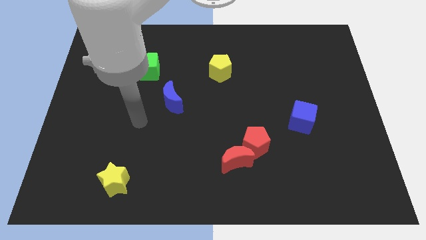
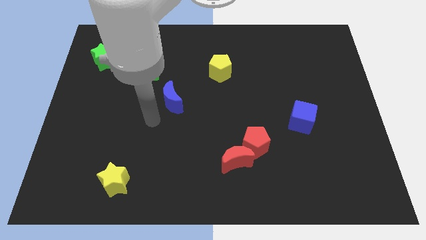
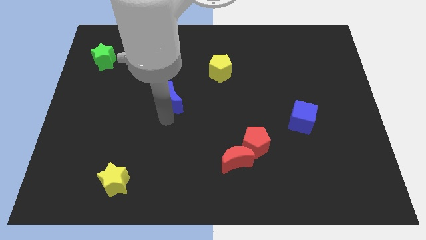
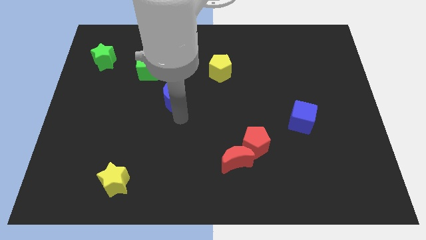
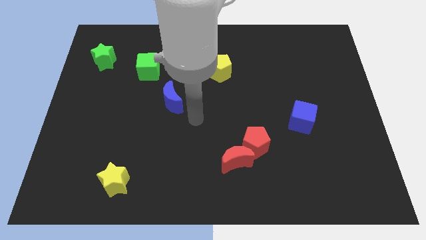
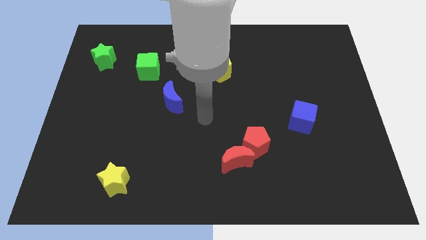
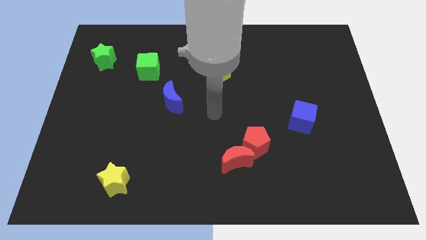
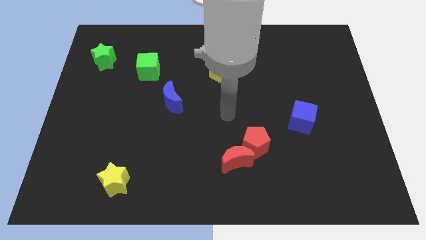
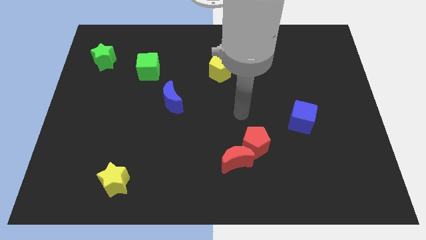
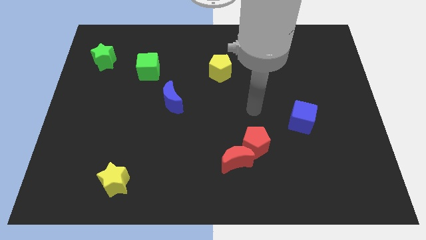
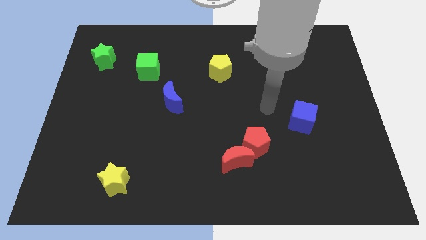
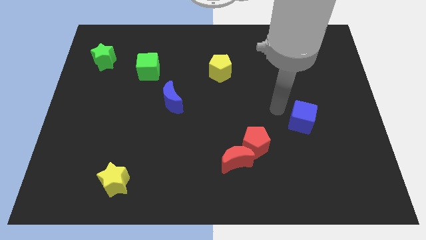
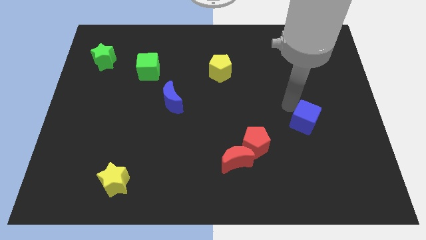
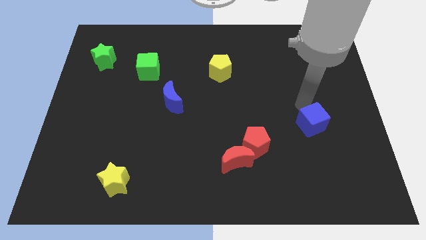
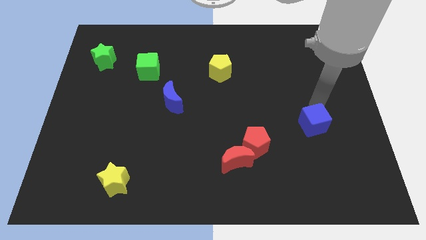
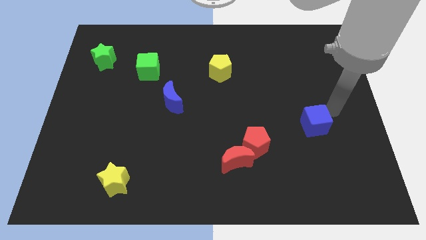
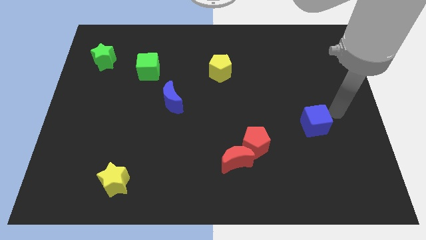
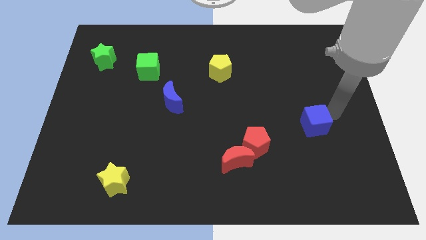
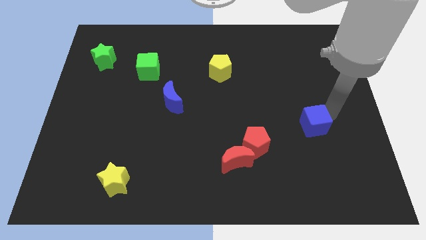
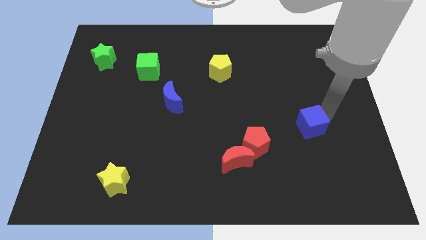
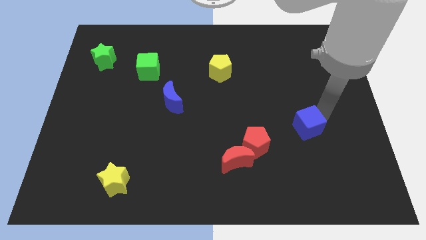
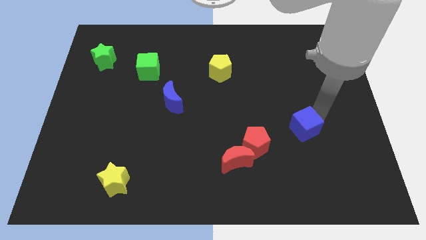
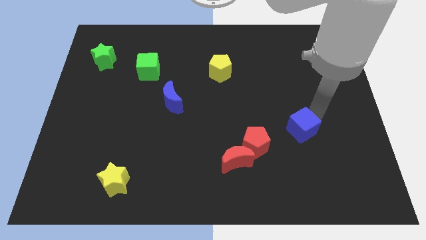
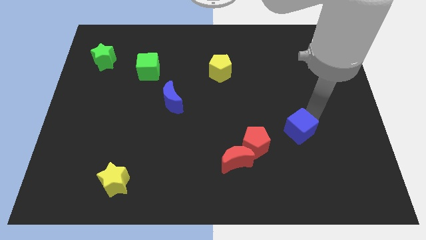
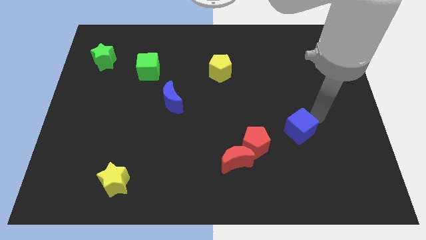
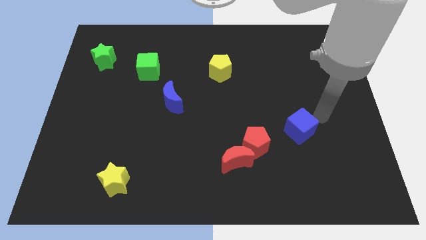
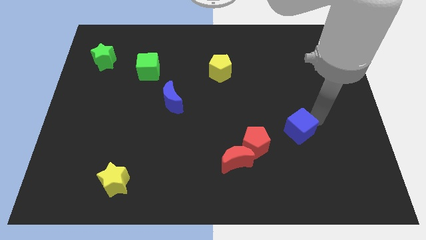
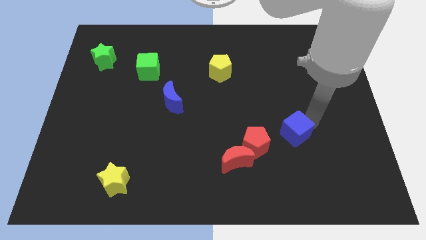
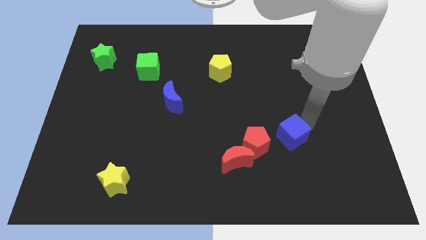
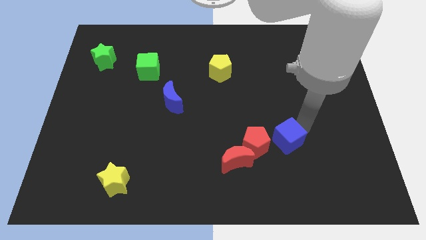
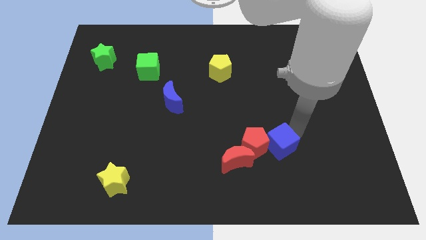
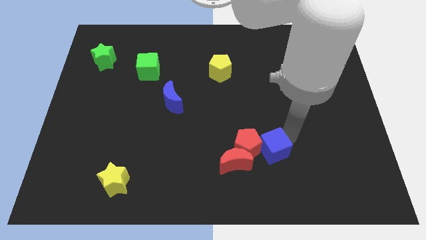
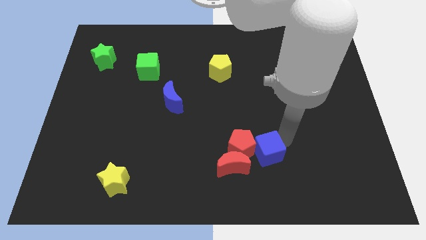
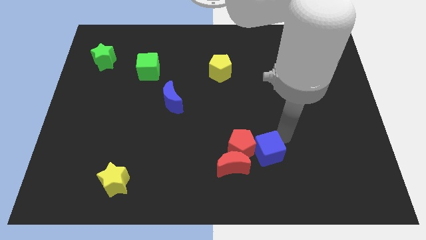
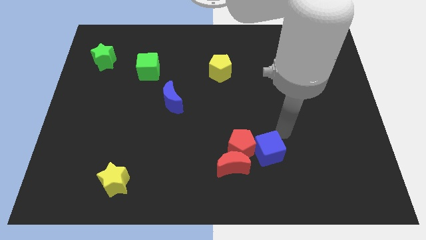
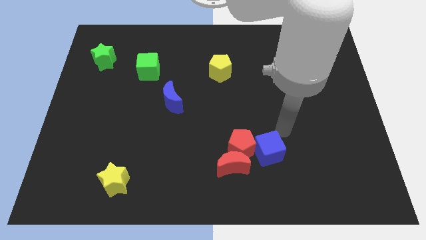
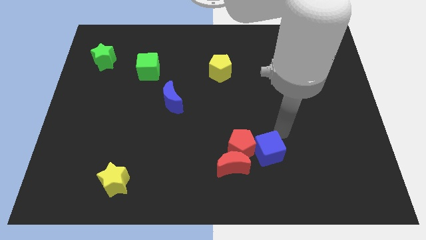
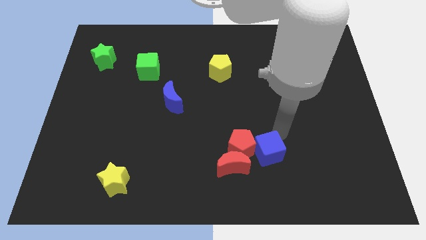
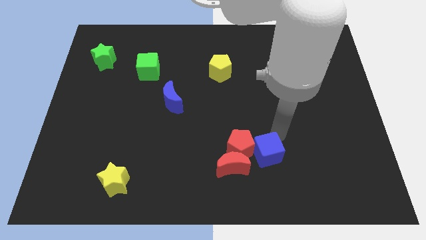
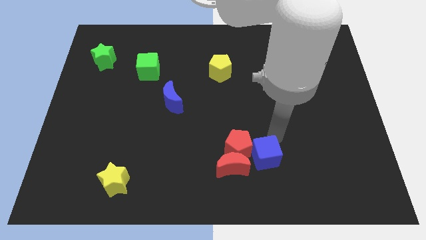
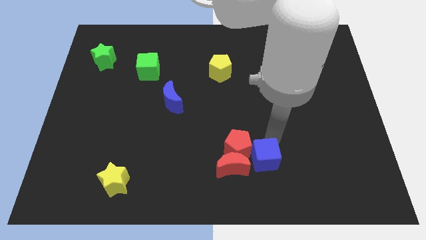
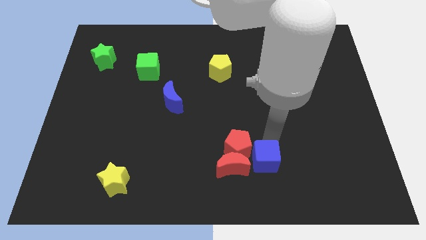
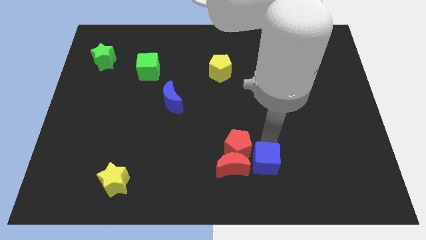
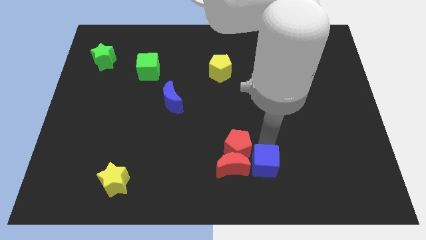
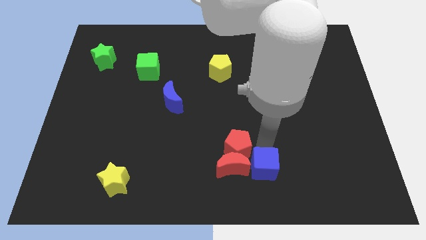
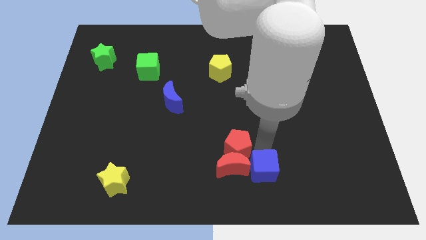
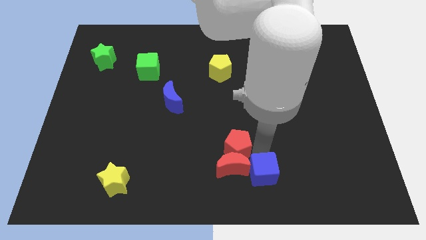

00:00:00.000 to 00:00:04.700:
push the blue cube to the red moon

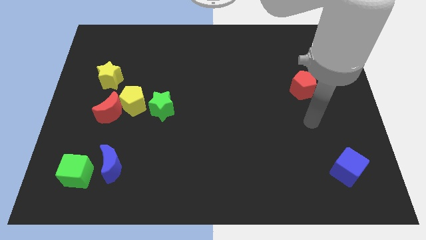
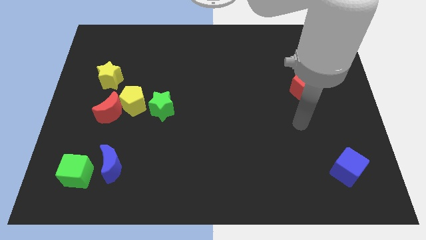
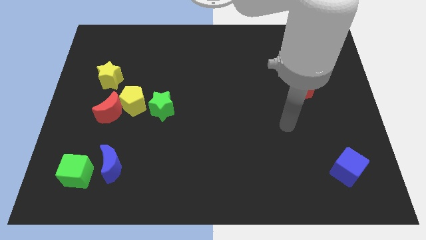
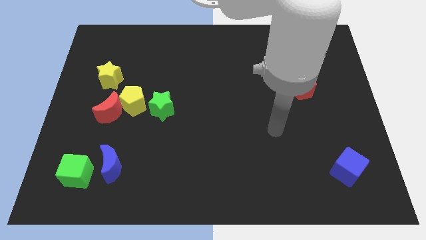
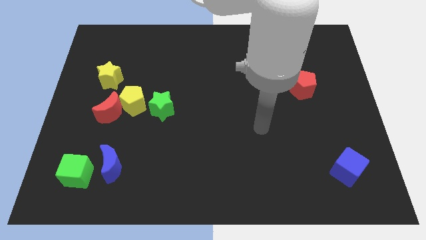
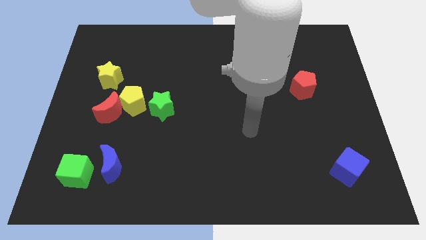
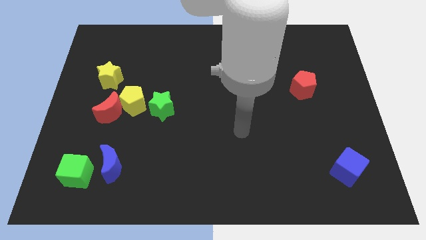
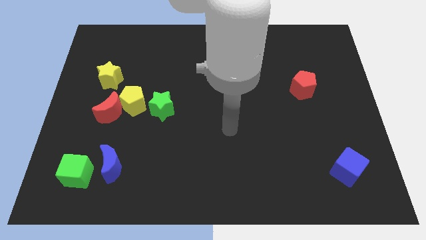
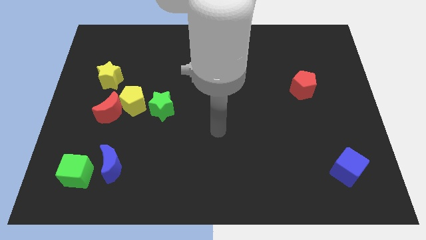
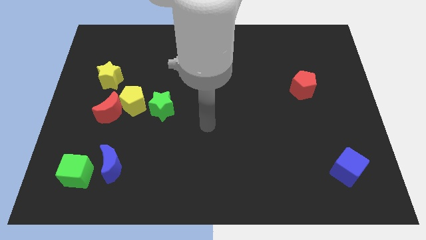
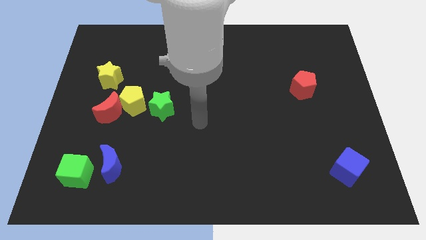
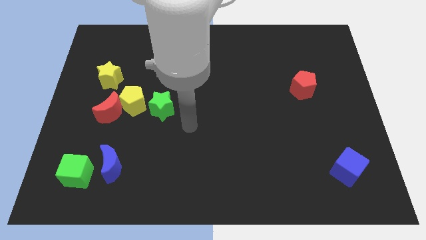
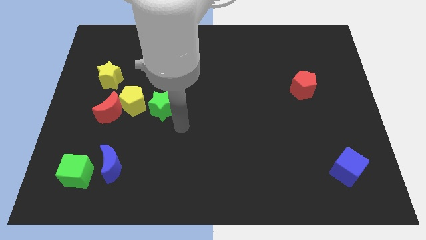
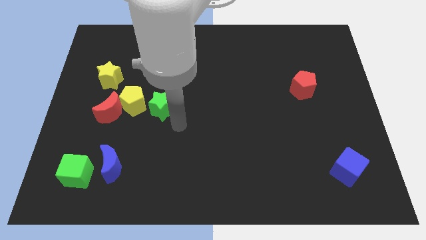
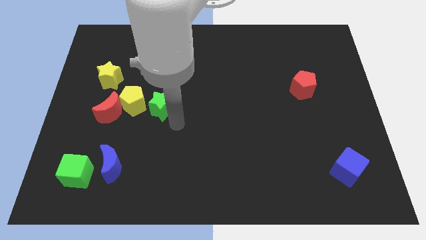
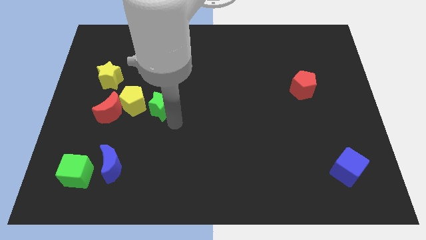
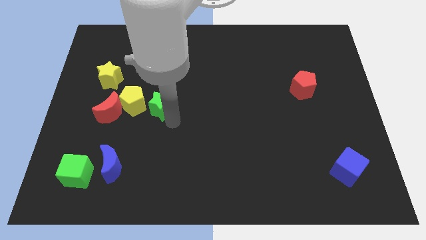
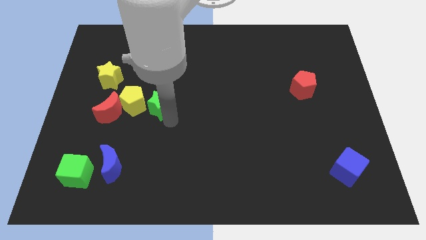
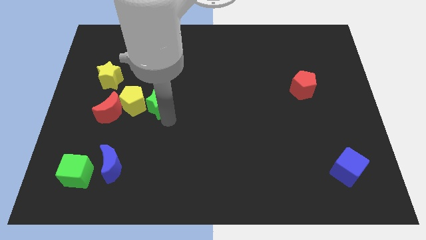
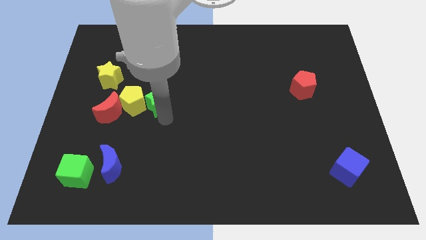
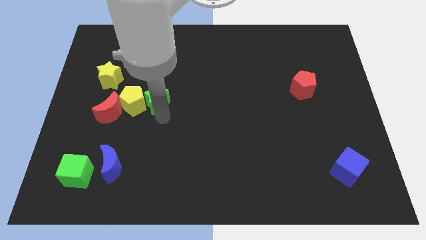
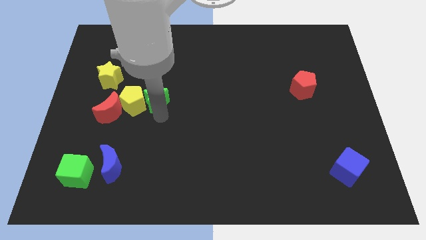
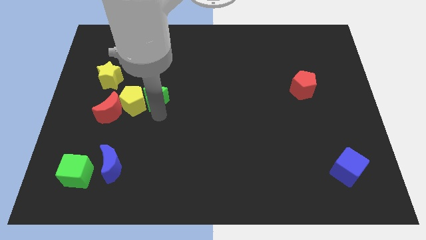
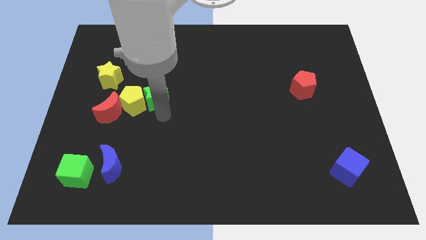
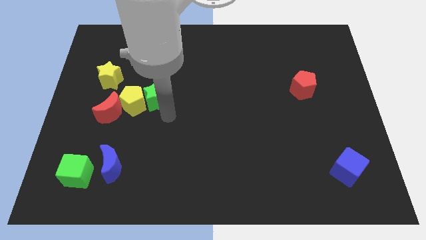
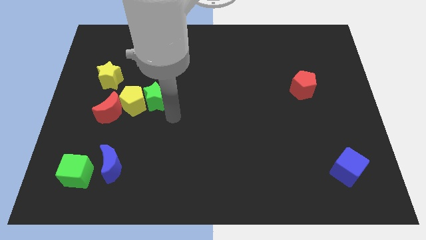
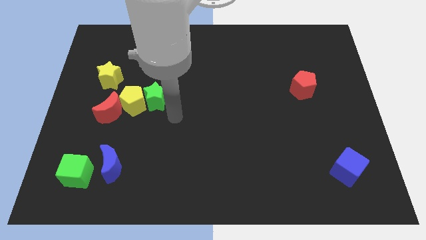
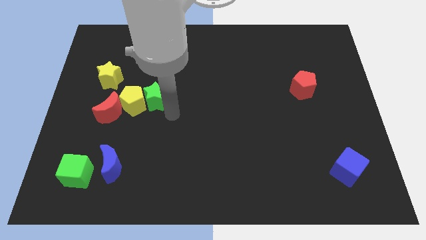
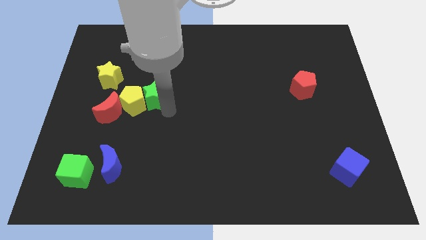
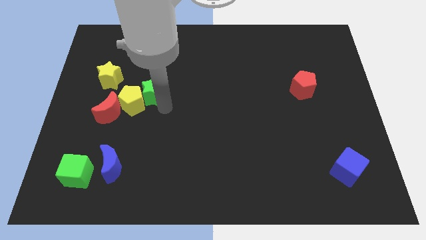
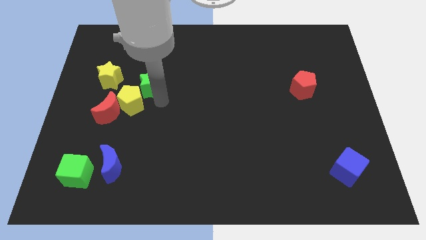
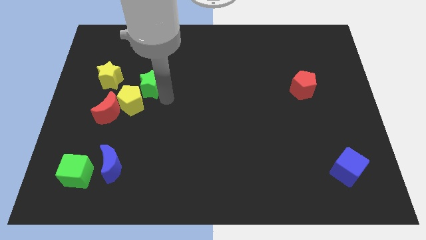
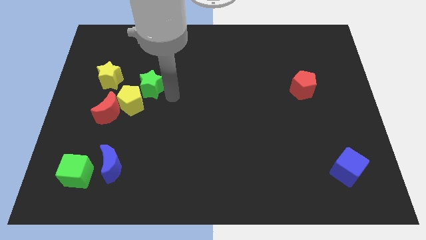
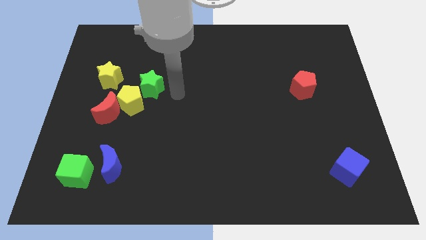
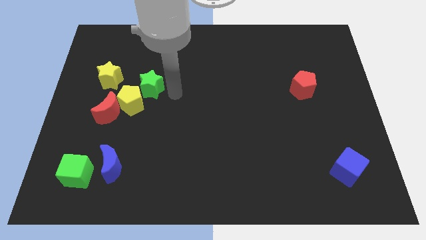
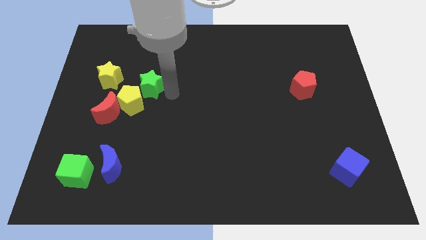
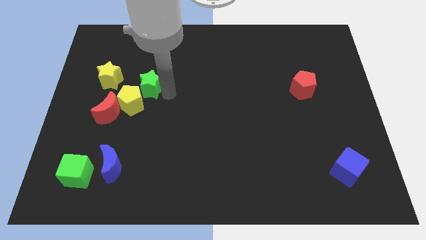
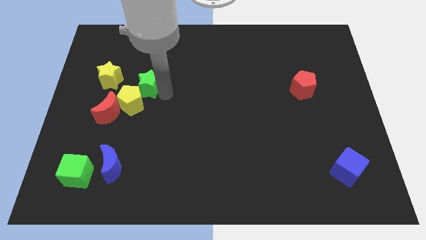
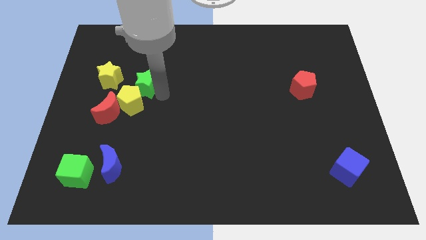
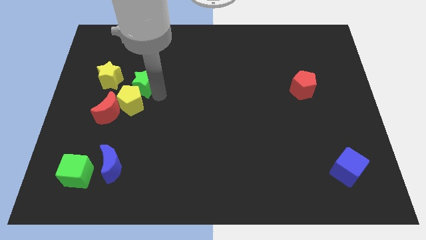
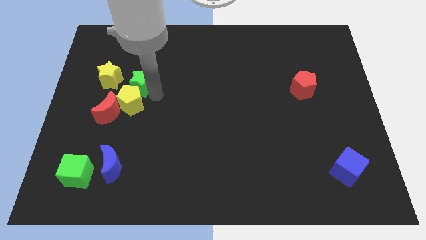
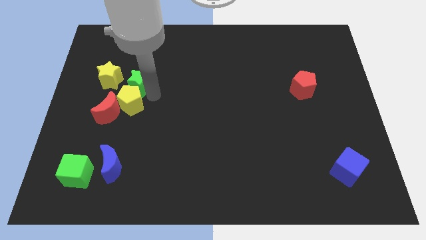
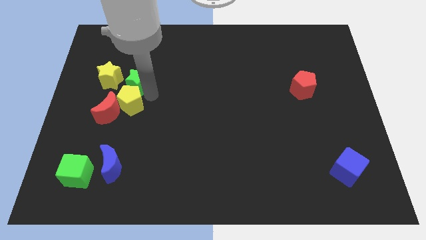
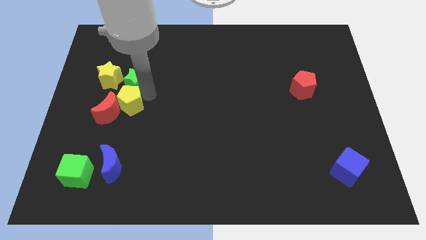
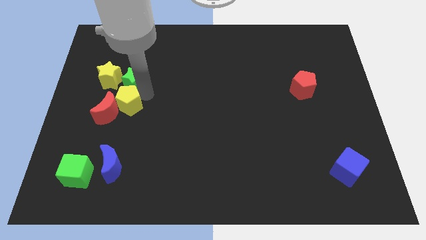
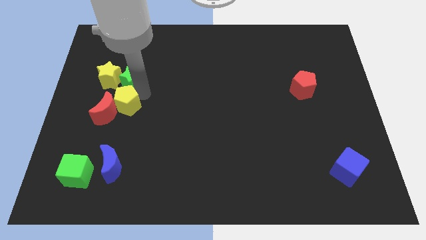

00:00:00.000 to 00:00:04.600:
slide the green star close to the yellow star
